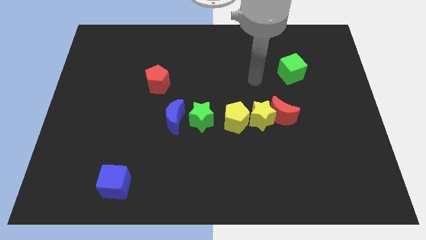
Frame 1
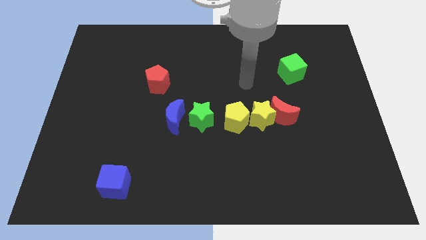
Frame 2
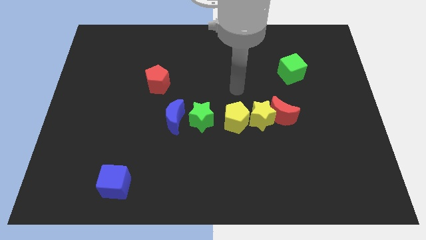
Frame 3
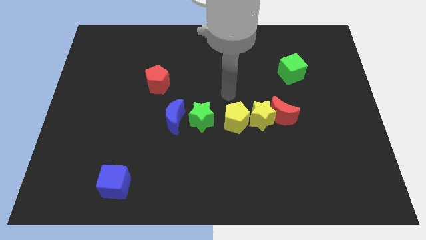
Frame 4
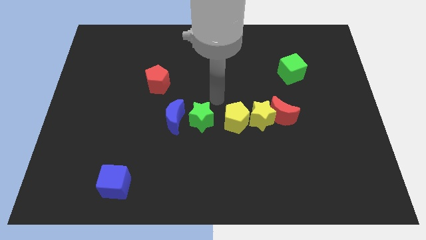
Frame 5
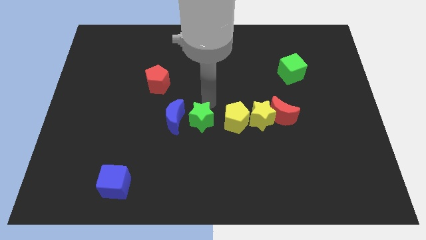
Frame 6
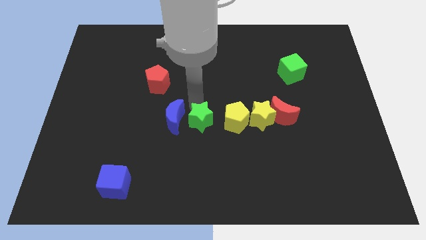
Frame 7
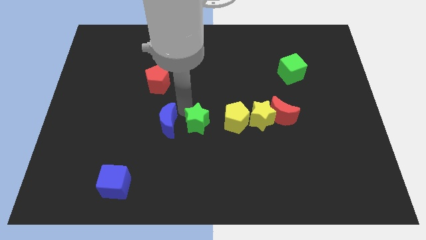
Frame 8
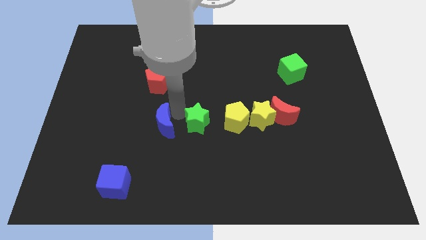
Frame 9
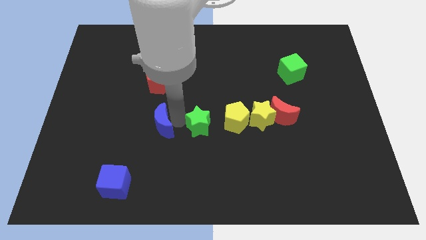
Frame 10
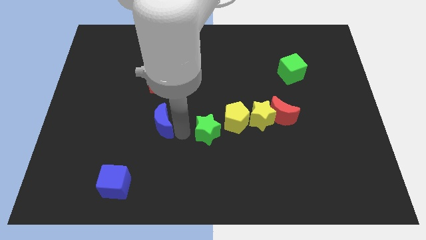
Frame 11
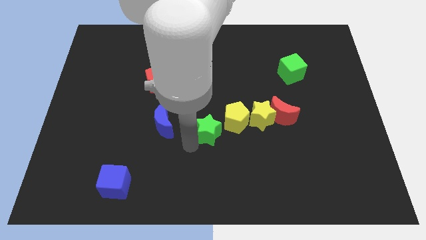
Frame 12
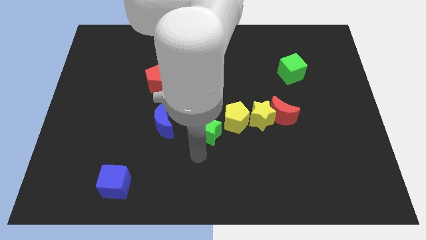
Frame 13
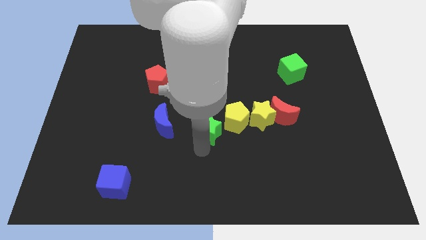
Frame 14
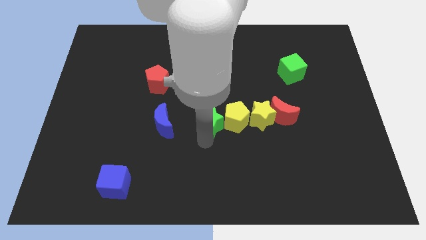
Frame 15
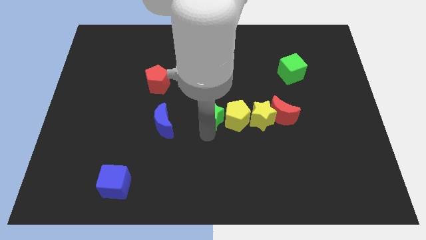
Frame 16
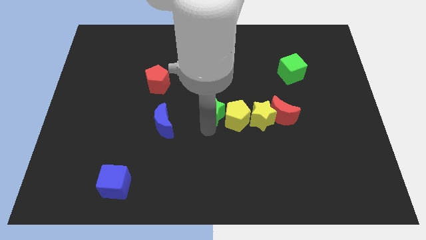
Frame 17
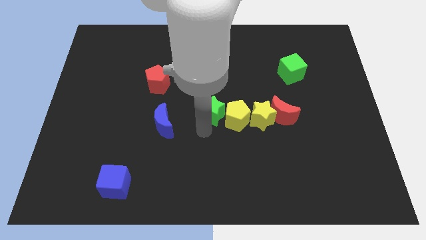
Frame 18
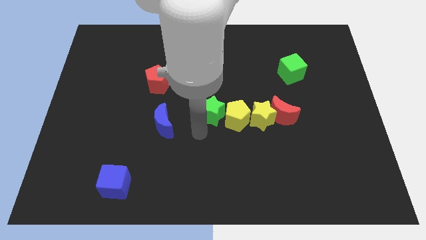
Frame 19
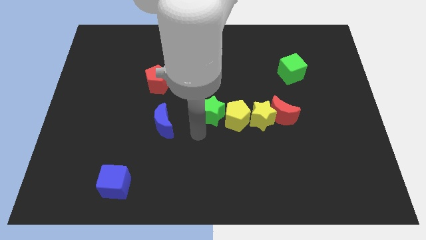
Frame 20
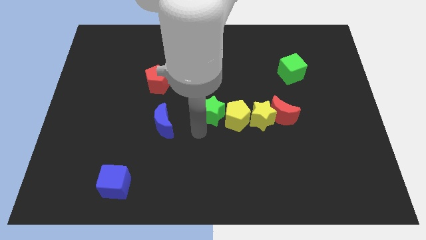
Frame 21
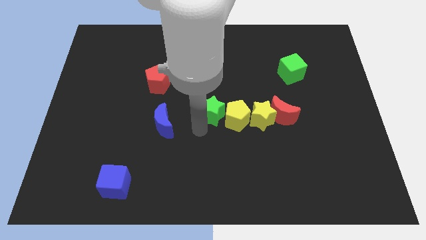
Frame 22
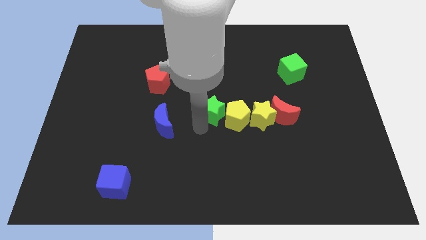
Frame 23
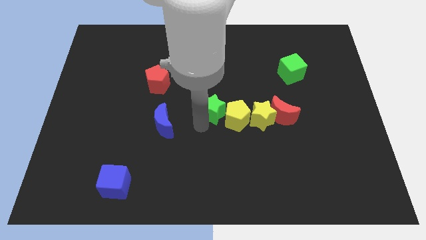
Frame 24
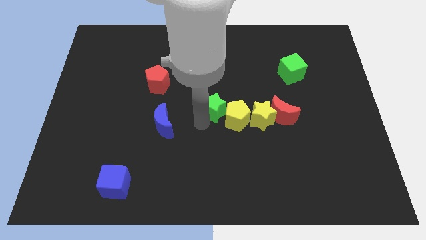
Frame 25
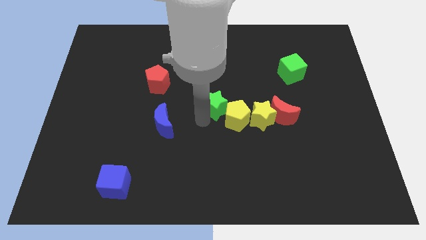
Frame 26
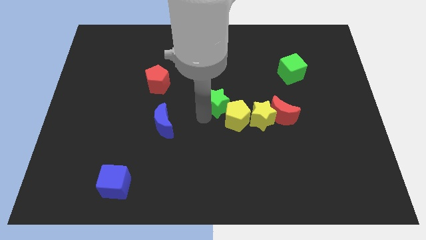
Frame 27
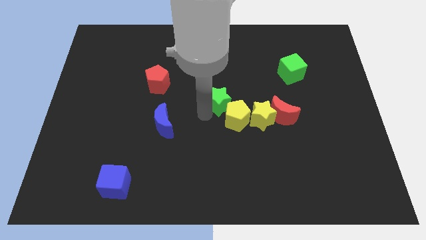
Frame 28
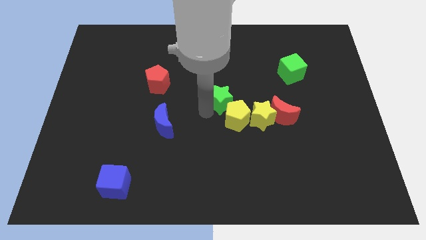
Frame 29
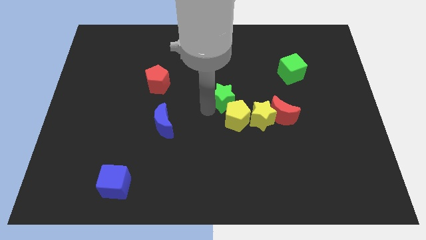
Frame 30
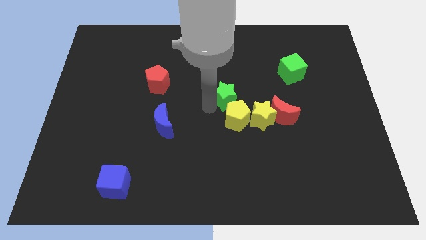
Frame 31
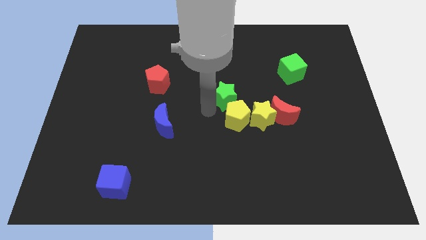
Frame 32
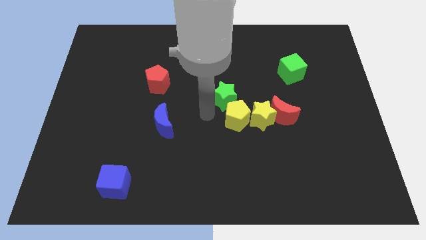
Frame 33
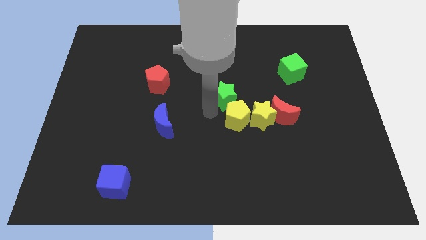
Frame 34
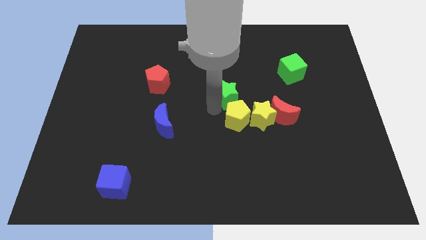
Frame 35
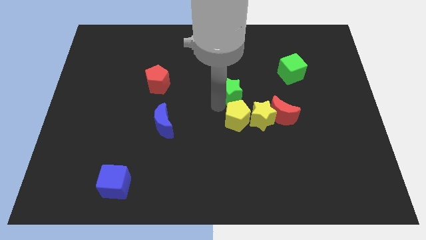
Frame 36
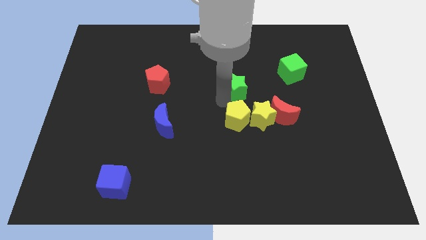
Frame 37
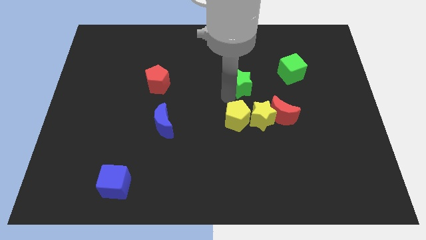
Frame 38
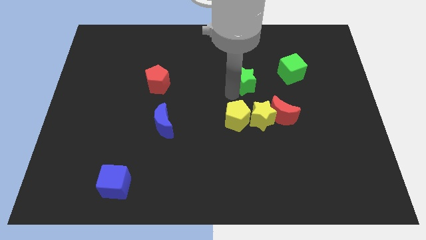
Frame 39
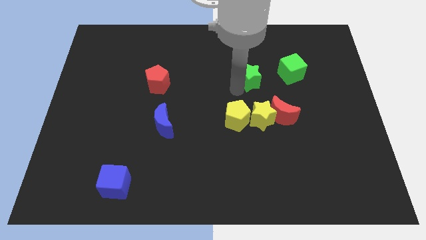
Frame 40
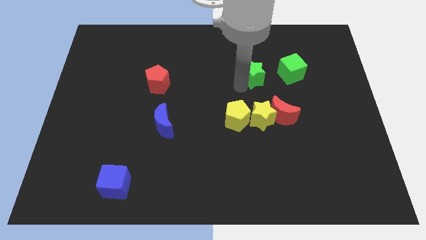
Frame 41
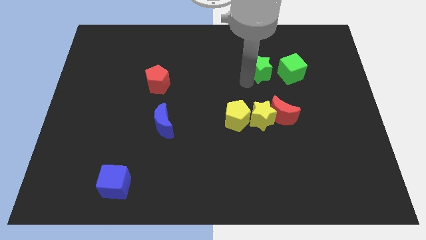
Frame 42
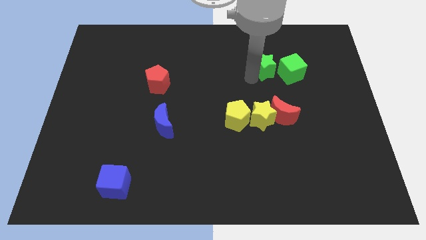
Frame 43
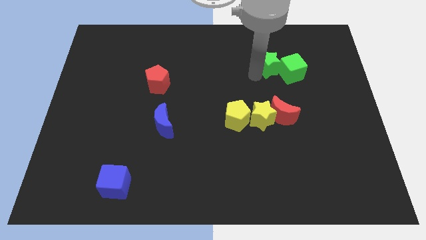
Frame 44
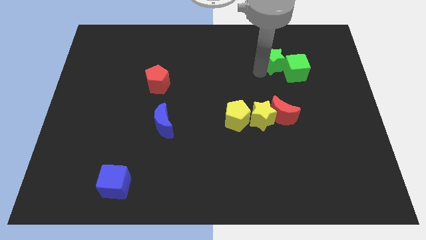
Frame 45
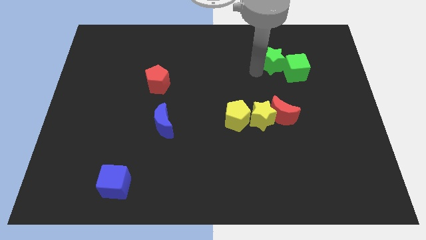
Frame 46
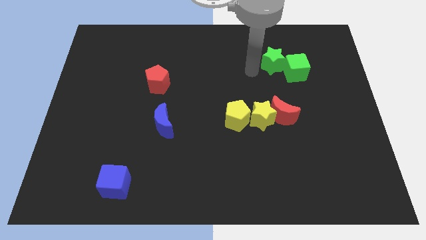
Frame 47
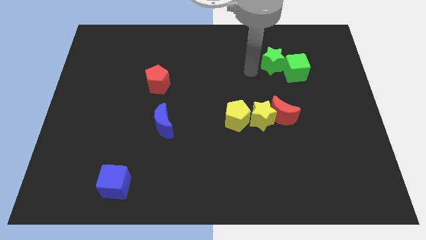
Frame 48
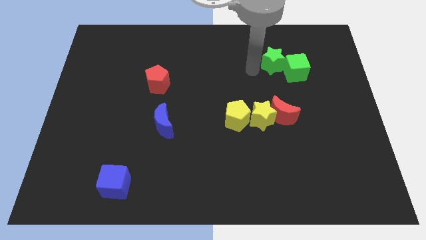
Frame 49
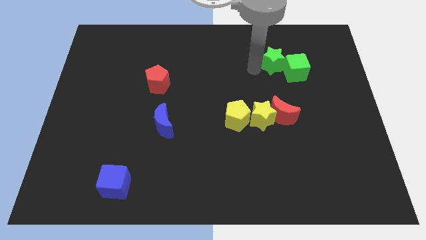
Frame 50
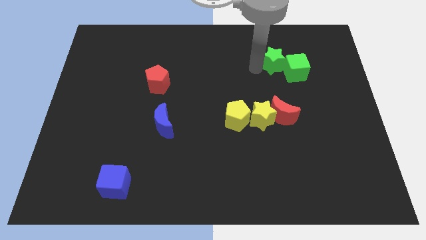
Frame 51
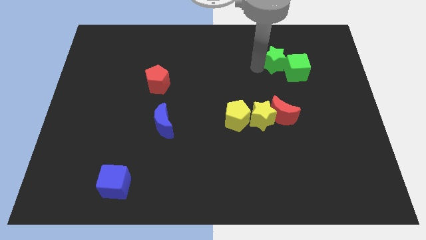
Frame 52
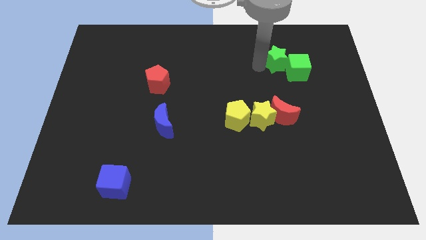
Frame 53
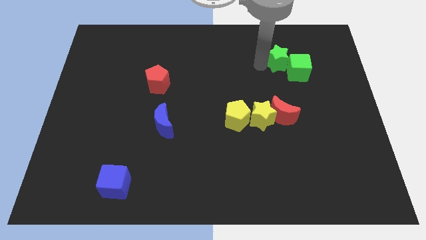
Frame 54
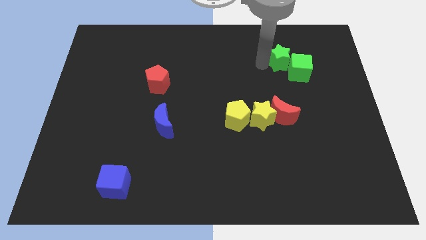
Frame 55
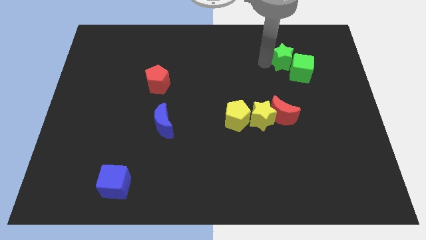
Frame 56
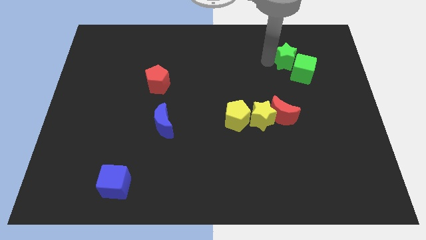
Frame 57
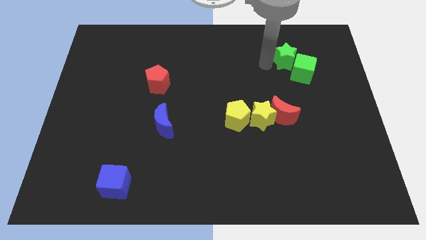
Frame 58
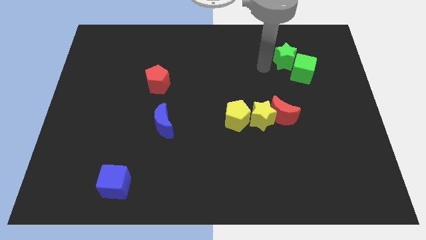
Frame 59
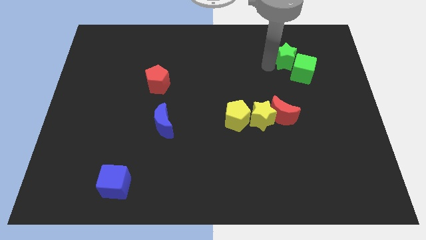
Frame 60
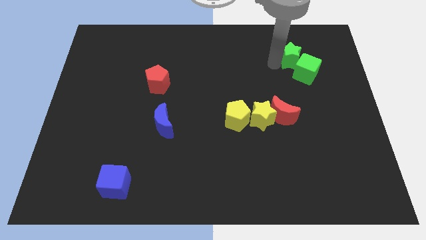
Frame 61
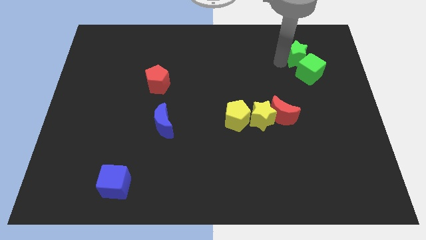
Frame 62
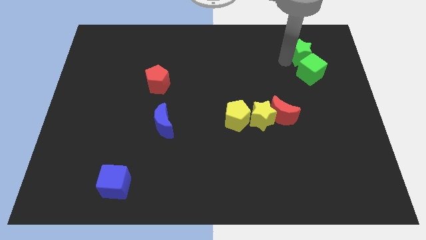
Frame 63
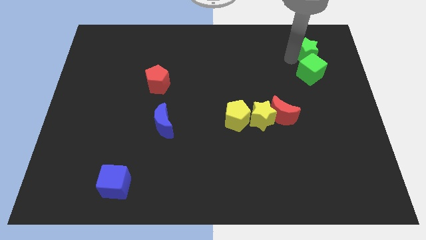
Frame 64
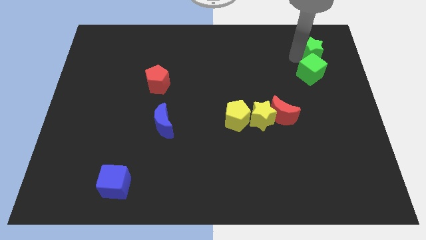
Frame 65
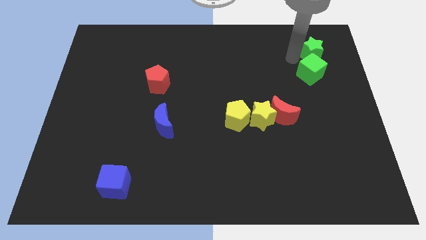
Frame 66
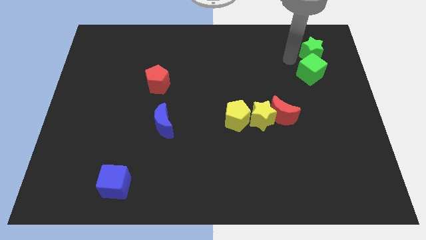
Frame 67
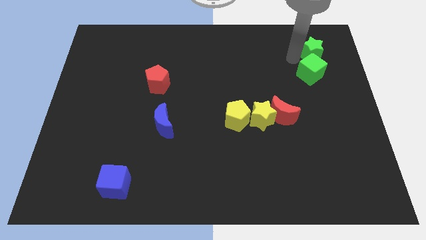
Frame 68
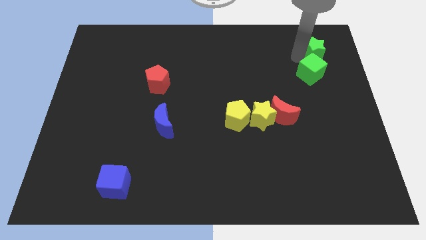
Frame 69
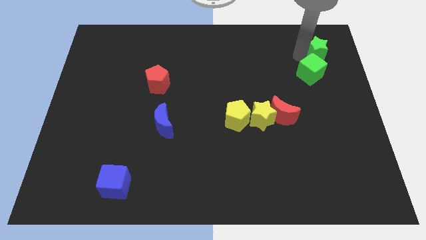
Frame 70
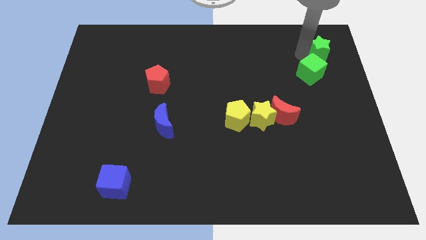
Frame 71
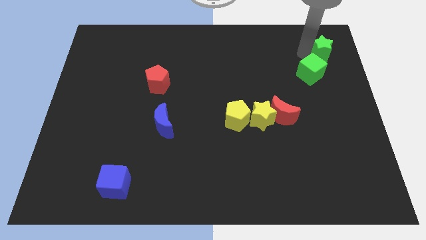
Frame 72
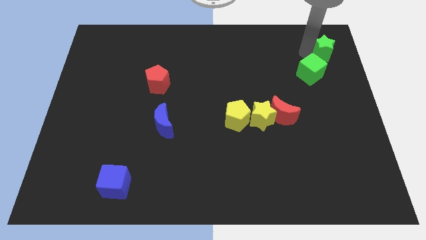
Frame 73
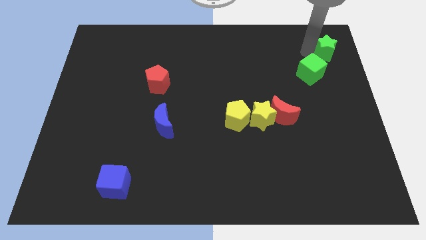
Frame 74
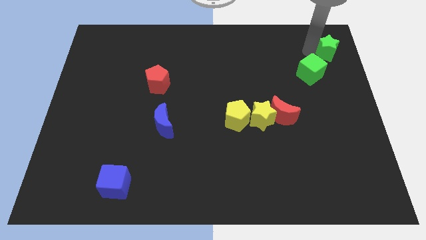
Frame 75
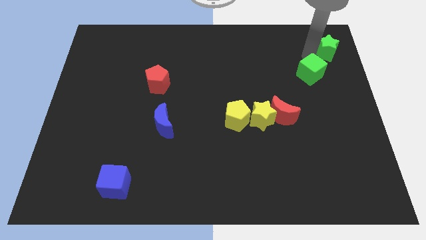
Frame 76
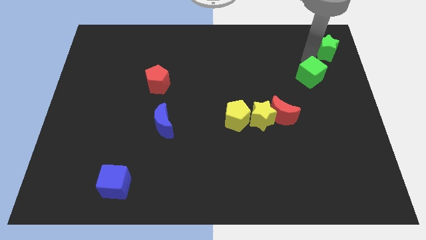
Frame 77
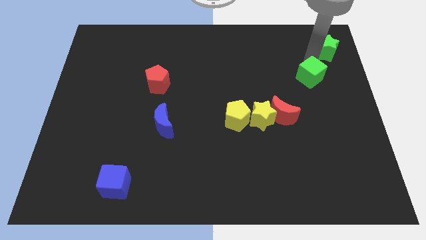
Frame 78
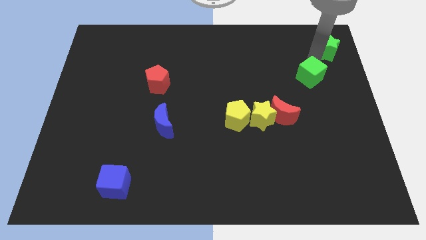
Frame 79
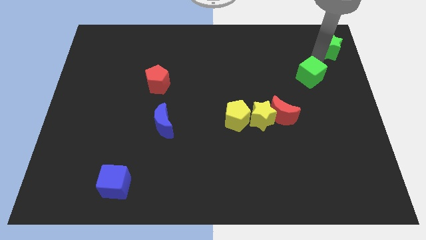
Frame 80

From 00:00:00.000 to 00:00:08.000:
put the green star to the top right corner
